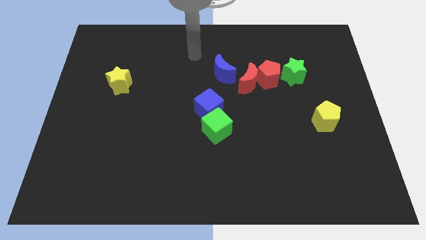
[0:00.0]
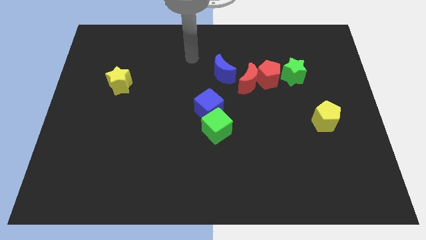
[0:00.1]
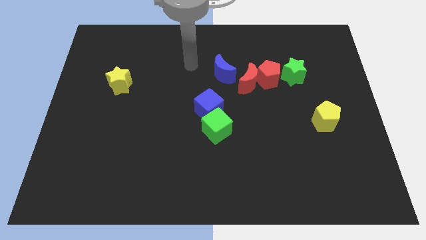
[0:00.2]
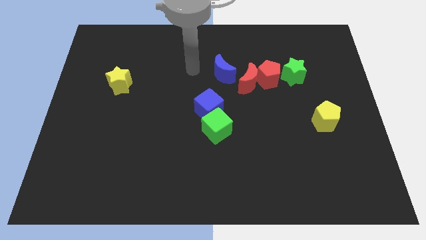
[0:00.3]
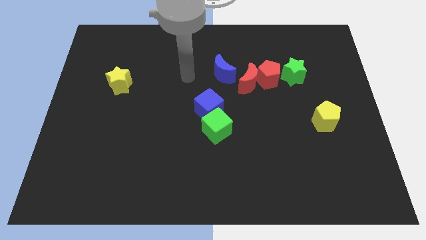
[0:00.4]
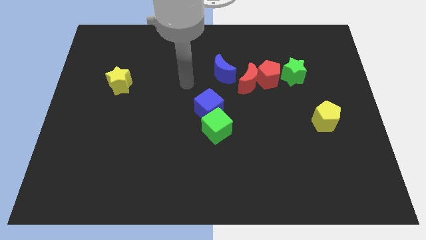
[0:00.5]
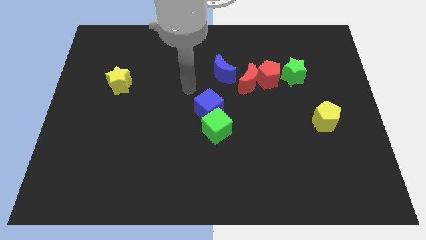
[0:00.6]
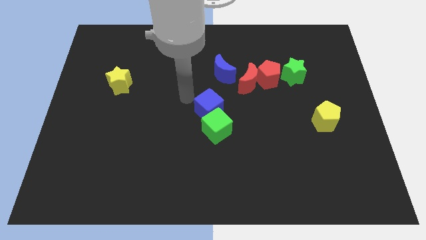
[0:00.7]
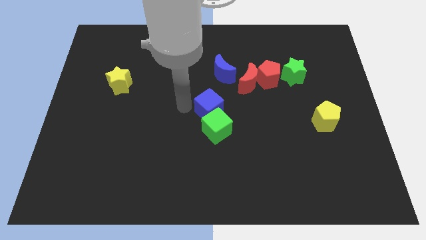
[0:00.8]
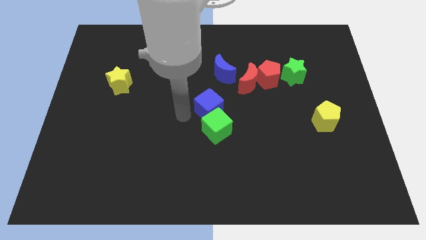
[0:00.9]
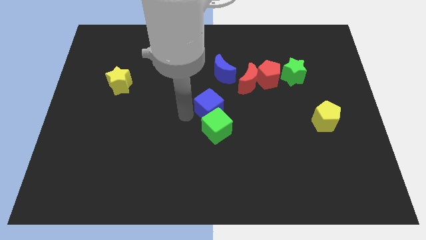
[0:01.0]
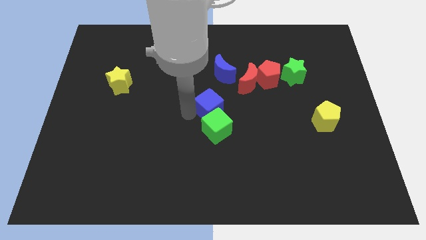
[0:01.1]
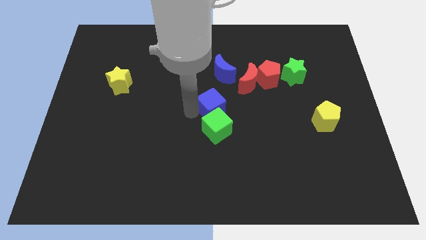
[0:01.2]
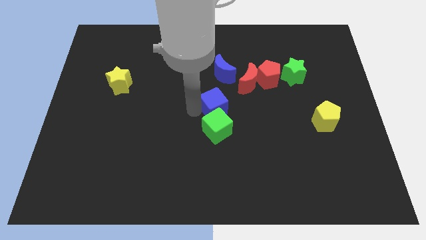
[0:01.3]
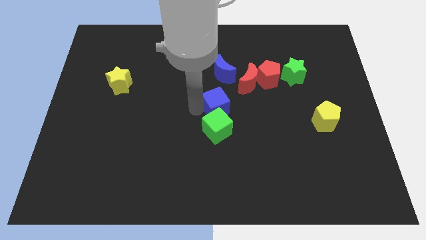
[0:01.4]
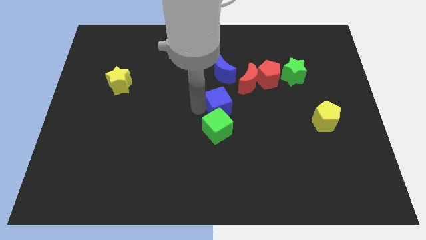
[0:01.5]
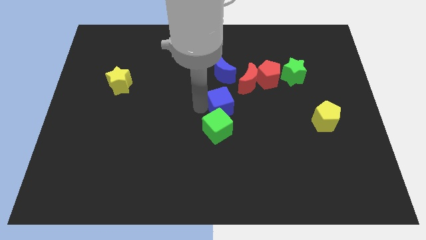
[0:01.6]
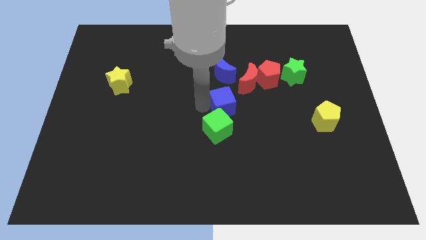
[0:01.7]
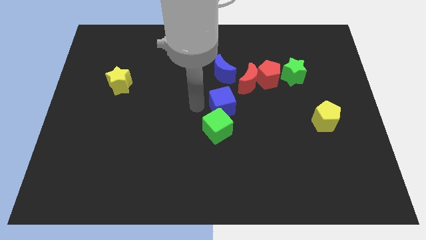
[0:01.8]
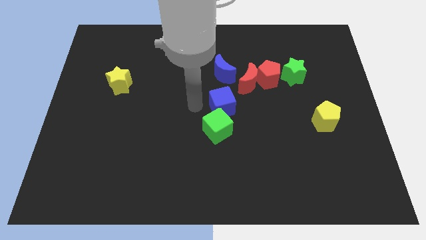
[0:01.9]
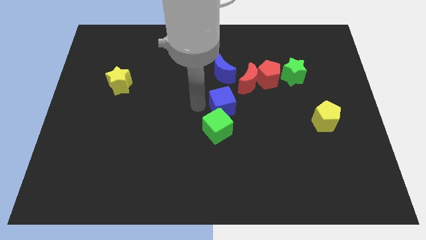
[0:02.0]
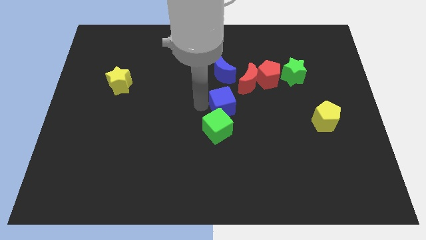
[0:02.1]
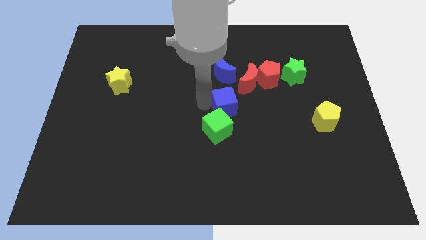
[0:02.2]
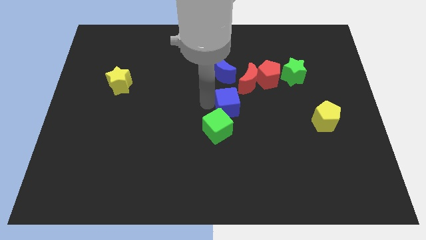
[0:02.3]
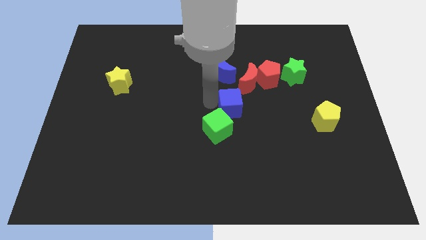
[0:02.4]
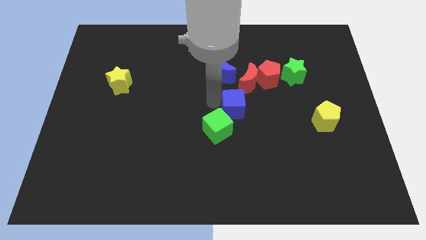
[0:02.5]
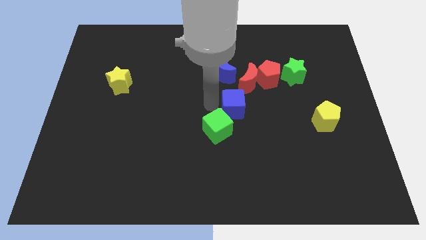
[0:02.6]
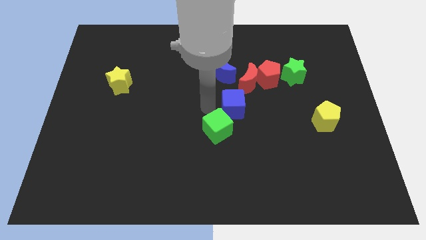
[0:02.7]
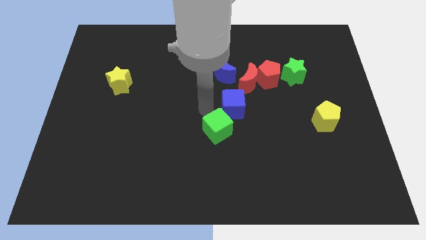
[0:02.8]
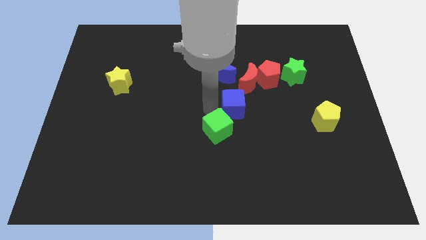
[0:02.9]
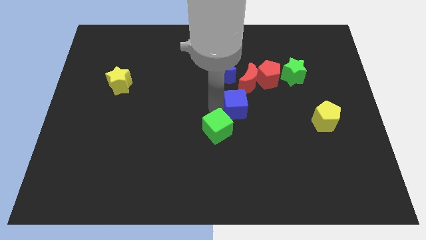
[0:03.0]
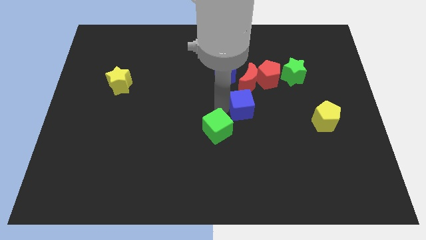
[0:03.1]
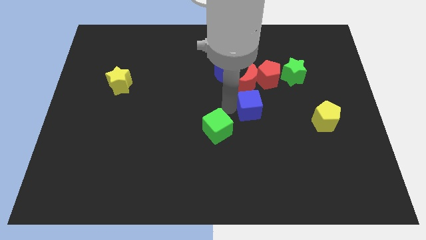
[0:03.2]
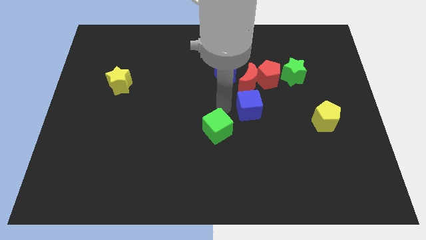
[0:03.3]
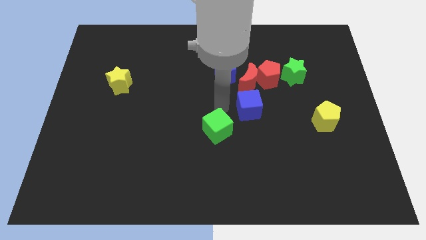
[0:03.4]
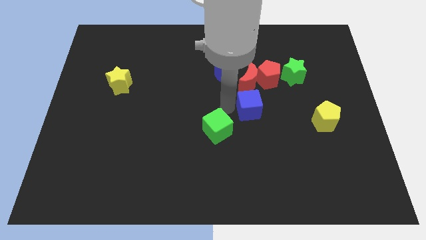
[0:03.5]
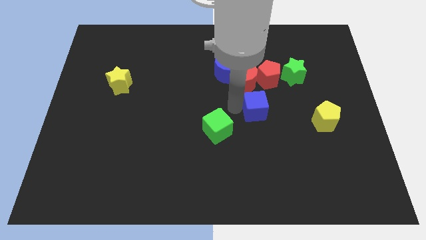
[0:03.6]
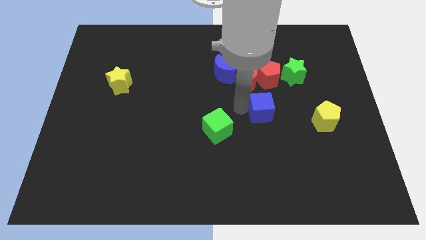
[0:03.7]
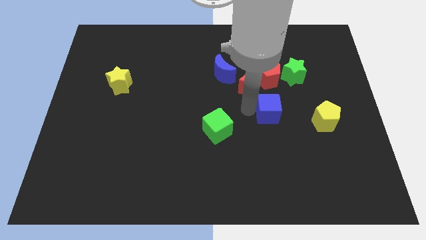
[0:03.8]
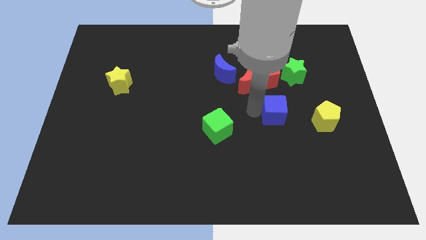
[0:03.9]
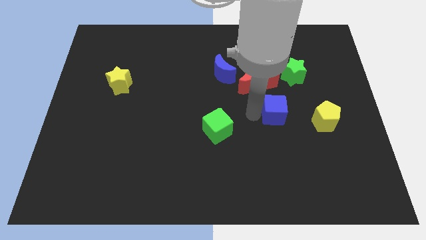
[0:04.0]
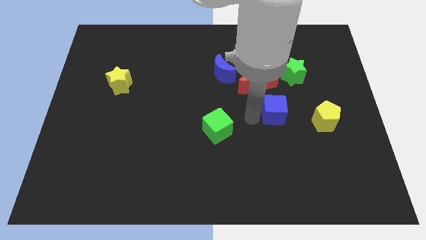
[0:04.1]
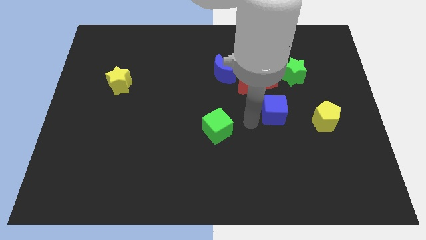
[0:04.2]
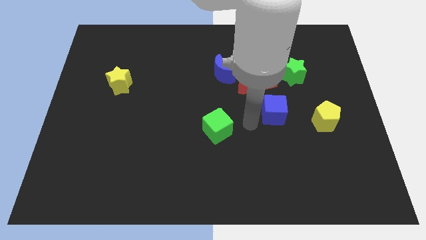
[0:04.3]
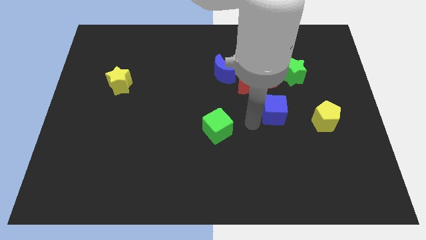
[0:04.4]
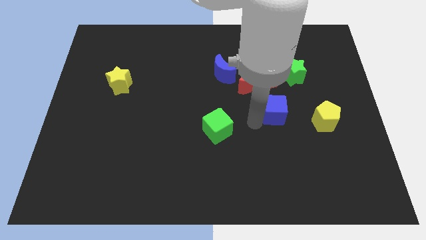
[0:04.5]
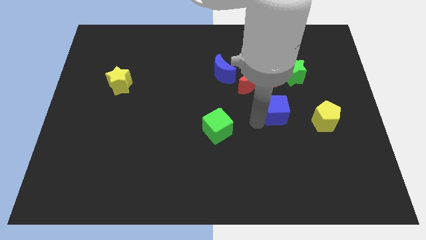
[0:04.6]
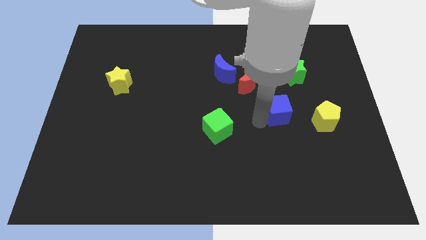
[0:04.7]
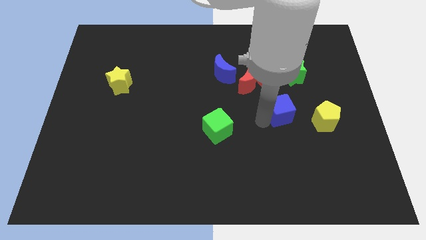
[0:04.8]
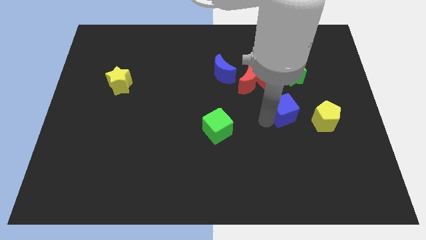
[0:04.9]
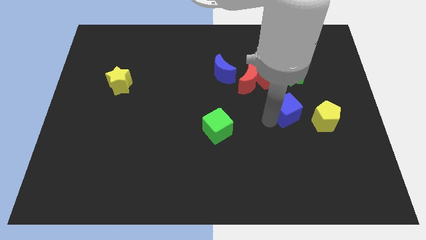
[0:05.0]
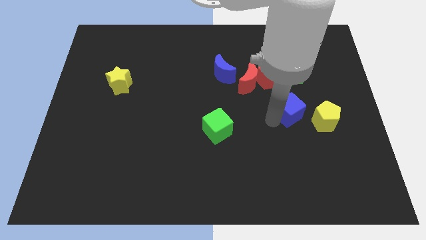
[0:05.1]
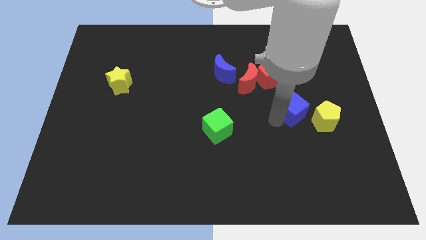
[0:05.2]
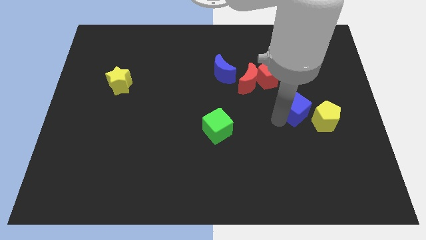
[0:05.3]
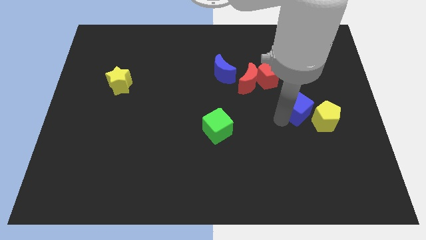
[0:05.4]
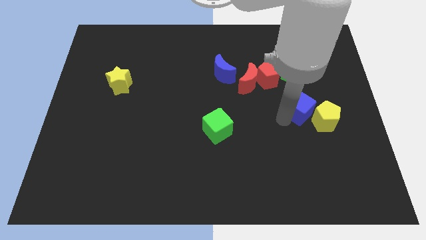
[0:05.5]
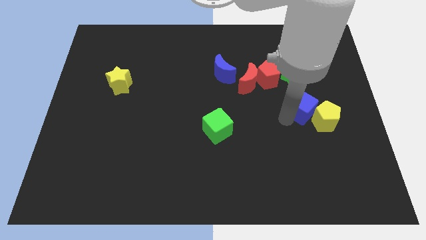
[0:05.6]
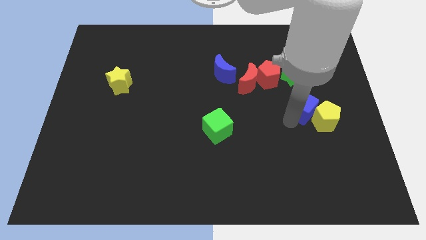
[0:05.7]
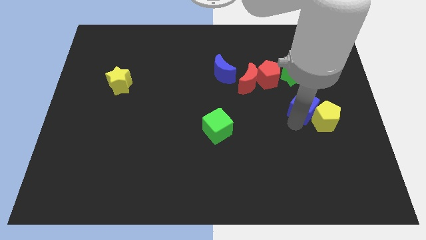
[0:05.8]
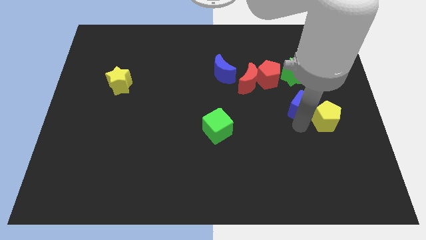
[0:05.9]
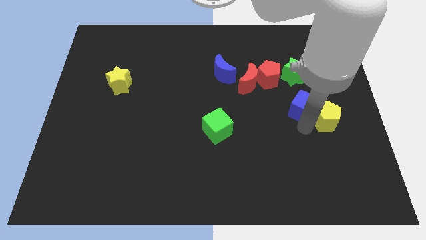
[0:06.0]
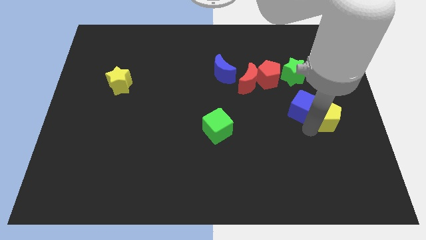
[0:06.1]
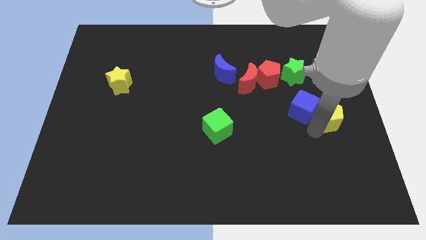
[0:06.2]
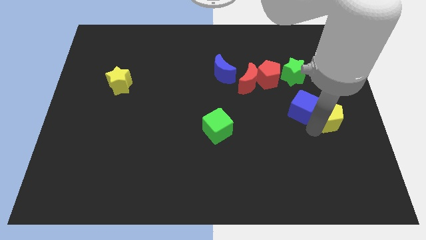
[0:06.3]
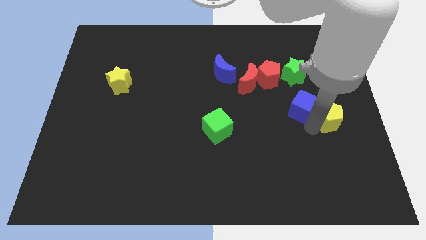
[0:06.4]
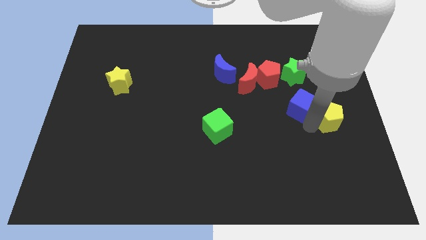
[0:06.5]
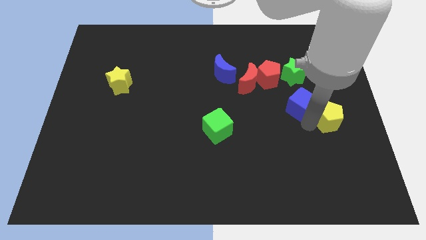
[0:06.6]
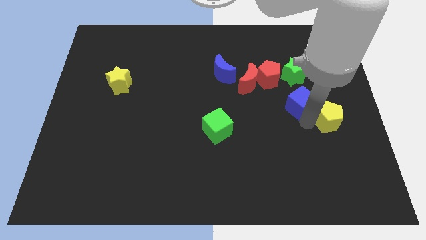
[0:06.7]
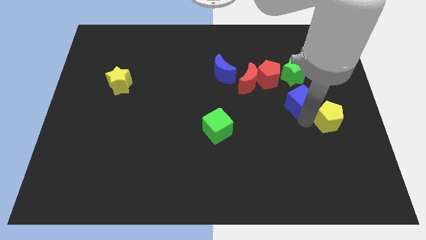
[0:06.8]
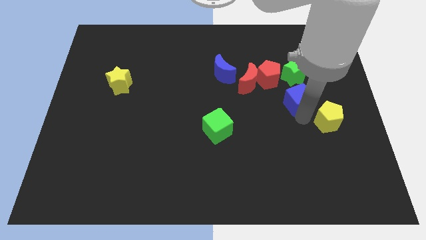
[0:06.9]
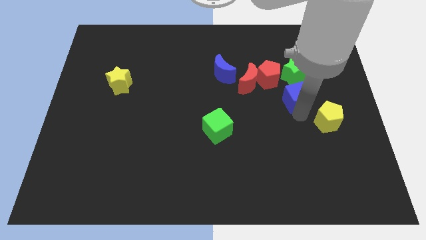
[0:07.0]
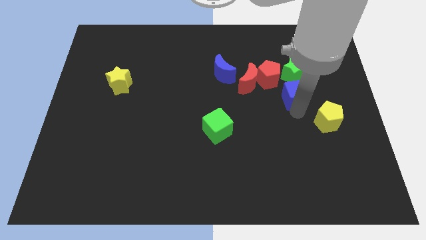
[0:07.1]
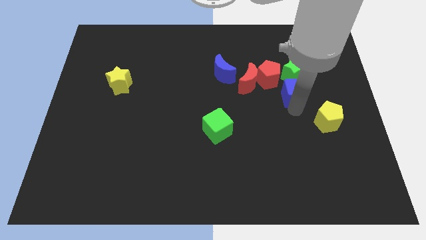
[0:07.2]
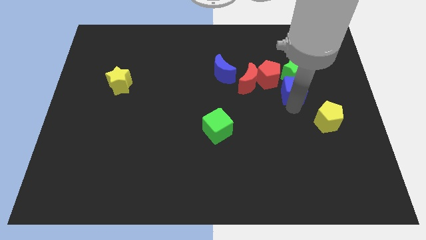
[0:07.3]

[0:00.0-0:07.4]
put the blue cube close to the green star

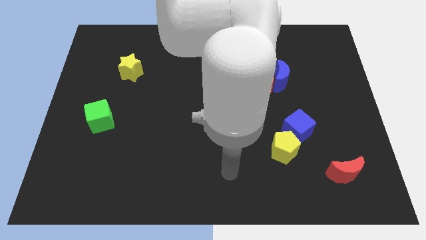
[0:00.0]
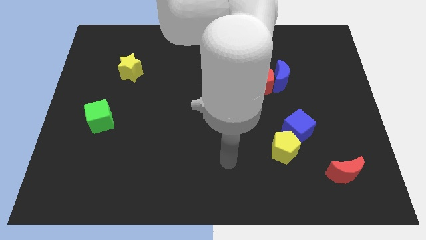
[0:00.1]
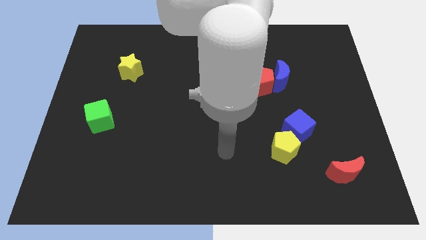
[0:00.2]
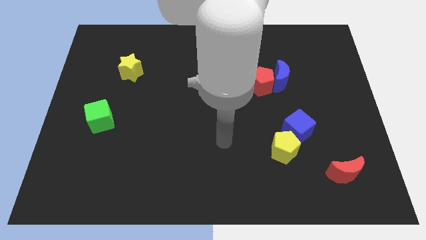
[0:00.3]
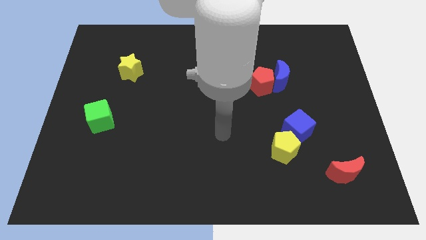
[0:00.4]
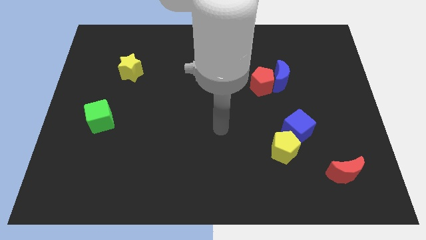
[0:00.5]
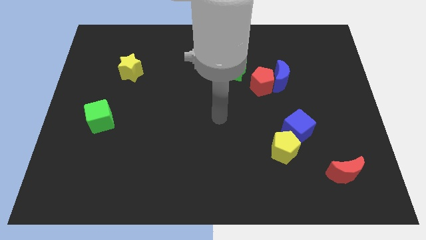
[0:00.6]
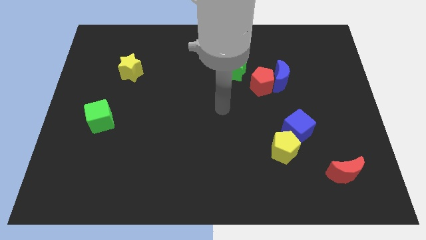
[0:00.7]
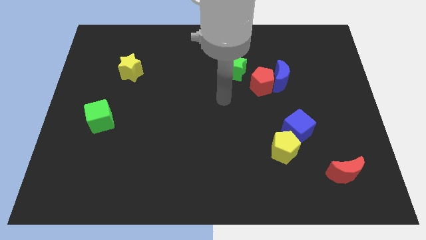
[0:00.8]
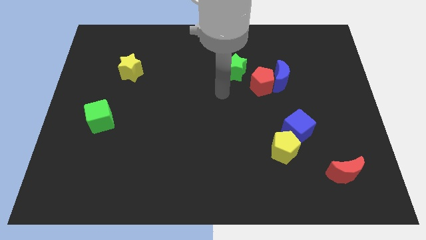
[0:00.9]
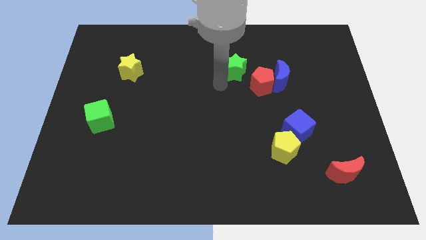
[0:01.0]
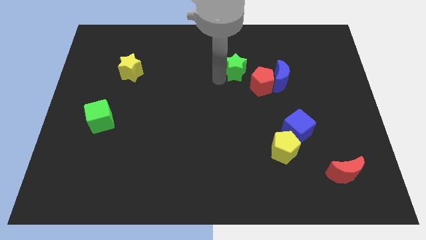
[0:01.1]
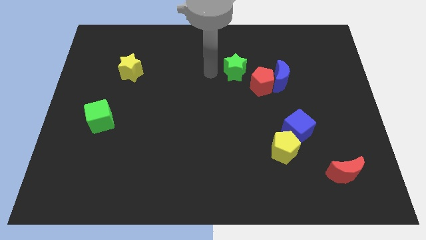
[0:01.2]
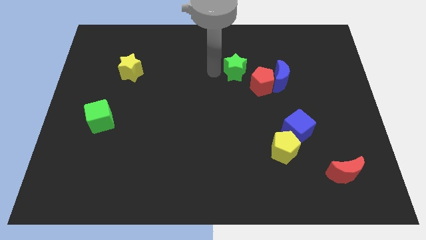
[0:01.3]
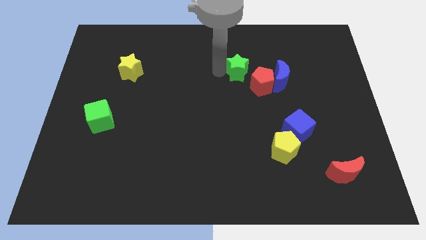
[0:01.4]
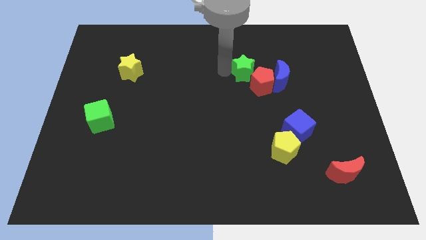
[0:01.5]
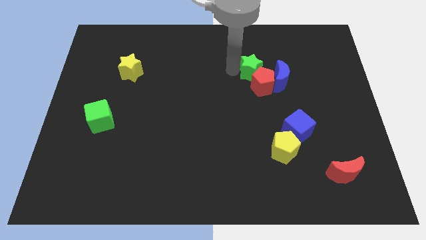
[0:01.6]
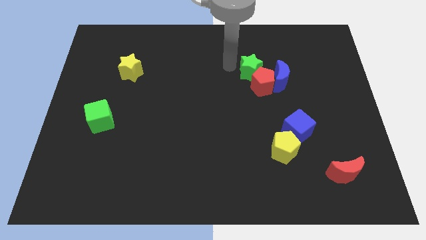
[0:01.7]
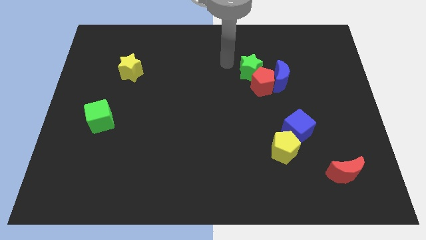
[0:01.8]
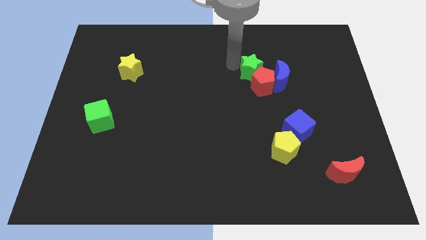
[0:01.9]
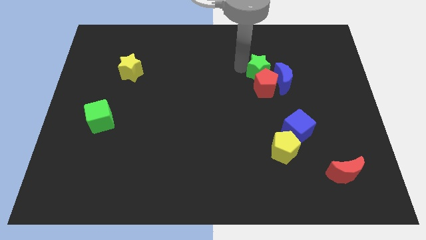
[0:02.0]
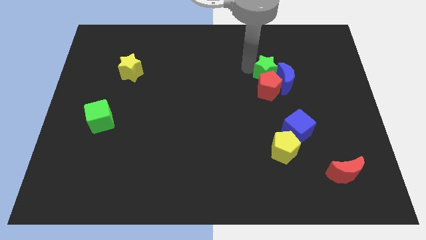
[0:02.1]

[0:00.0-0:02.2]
put the green star next to the blue moon
